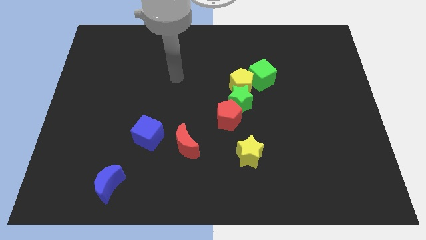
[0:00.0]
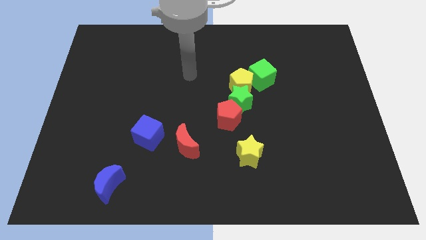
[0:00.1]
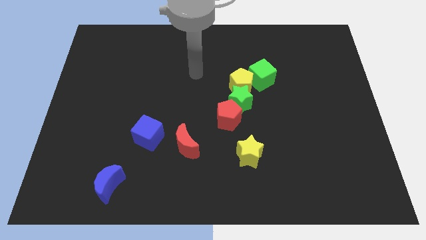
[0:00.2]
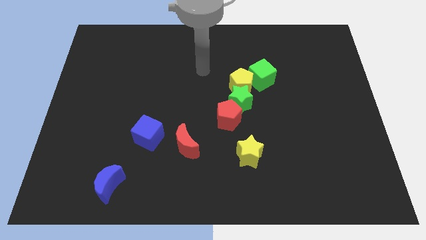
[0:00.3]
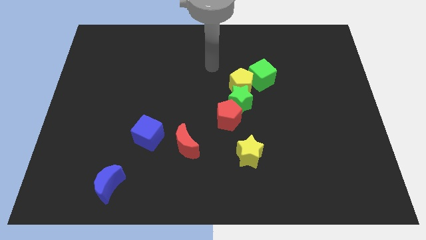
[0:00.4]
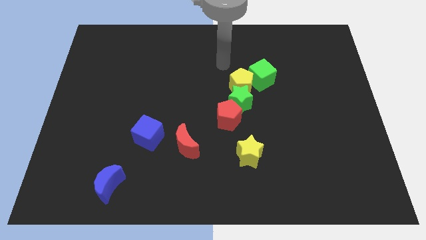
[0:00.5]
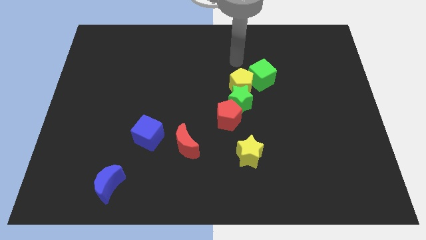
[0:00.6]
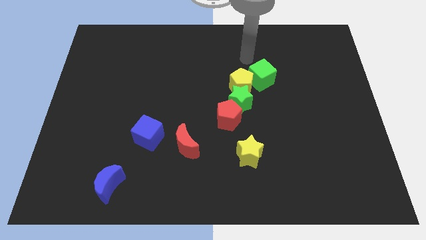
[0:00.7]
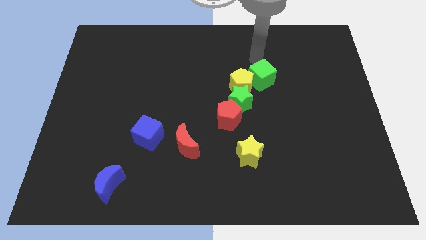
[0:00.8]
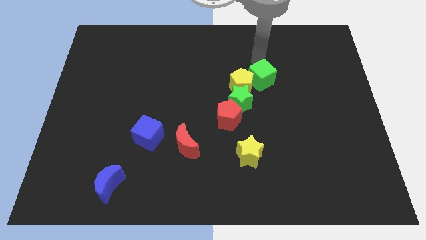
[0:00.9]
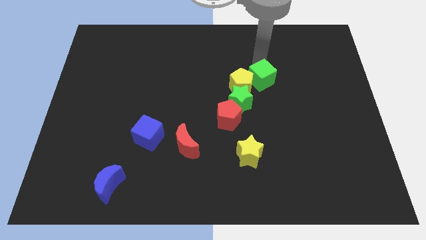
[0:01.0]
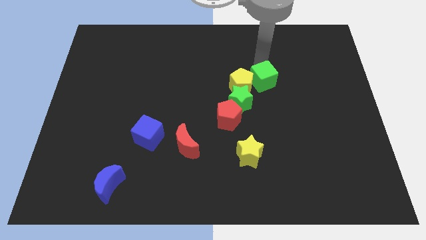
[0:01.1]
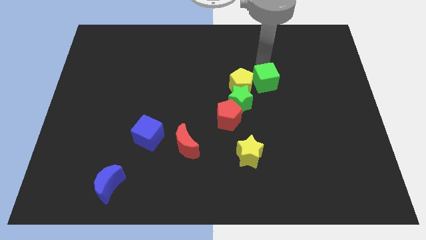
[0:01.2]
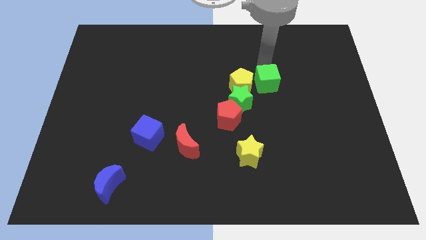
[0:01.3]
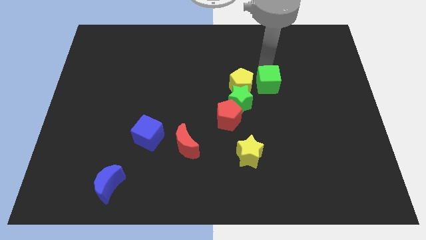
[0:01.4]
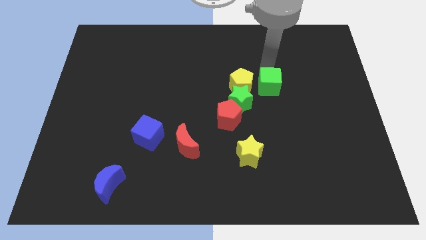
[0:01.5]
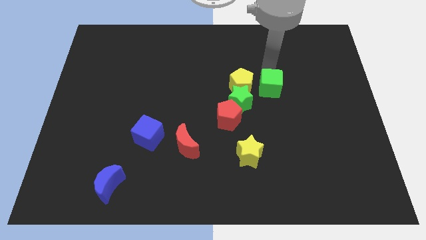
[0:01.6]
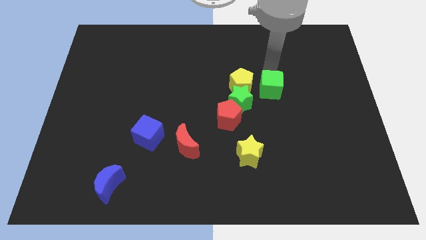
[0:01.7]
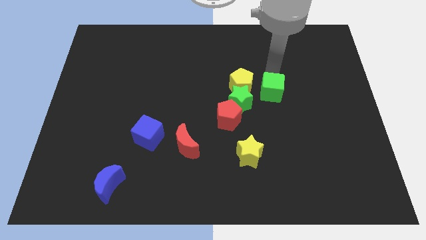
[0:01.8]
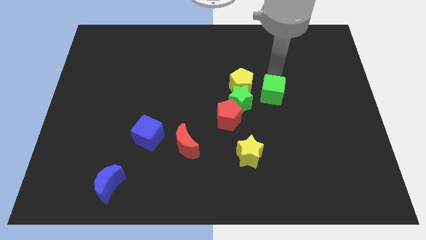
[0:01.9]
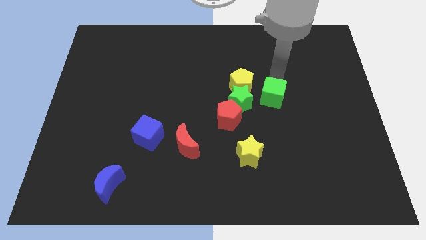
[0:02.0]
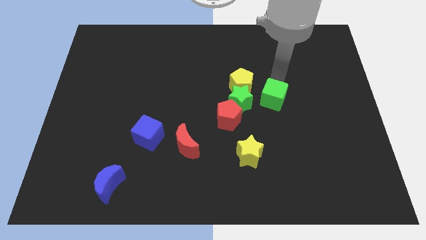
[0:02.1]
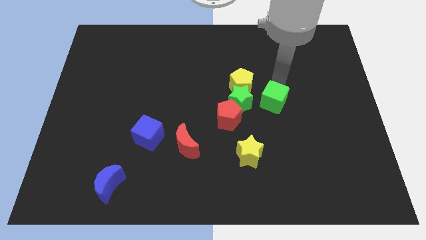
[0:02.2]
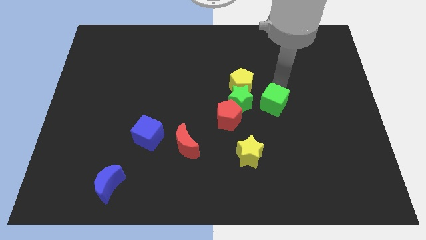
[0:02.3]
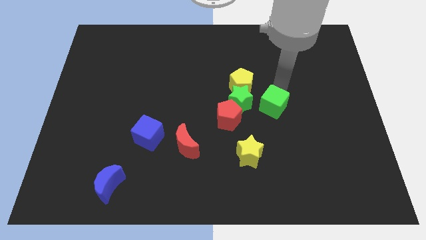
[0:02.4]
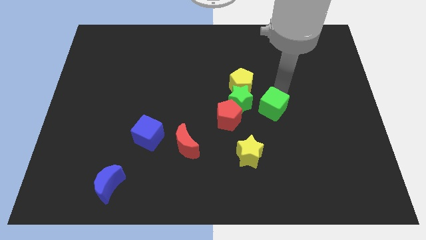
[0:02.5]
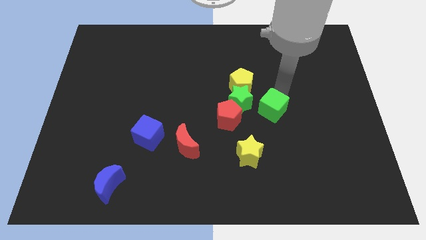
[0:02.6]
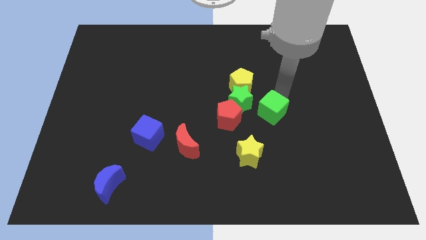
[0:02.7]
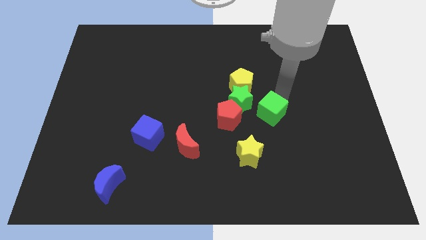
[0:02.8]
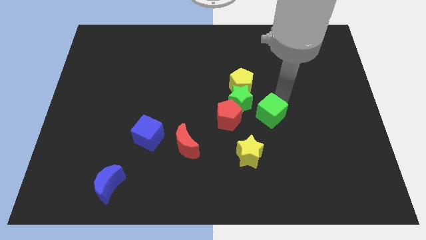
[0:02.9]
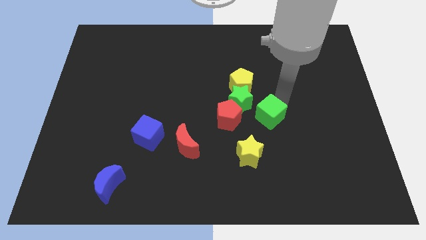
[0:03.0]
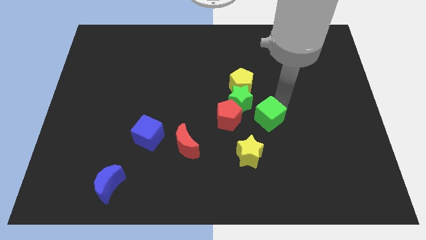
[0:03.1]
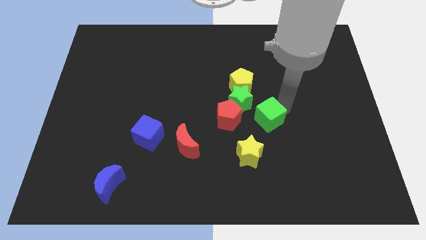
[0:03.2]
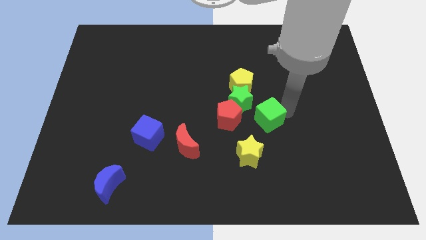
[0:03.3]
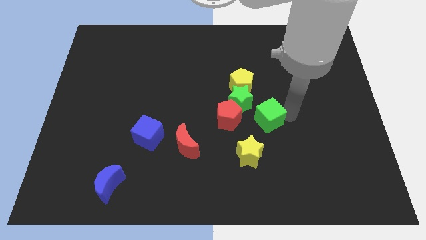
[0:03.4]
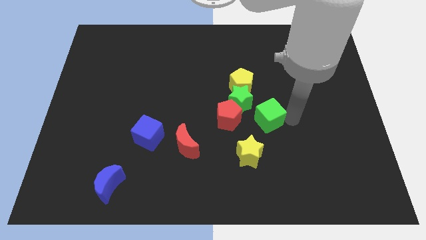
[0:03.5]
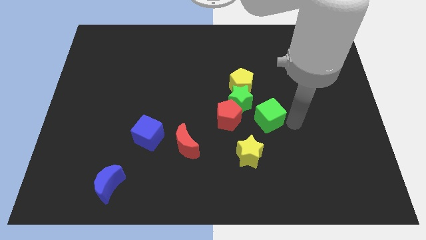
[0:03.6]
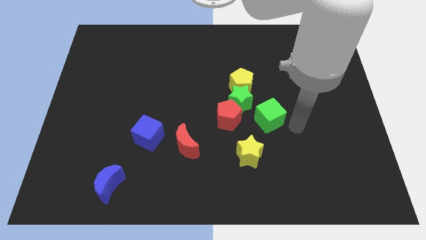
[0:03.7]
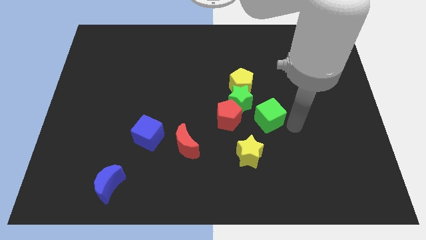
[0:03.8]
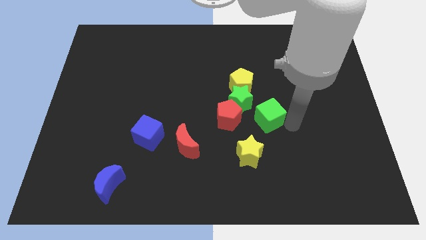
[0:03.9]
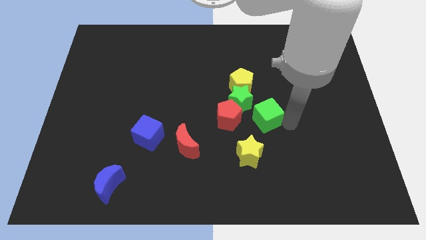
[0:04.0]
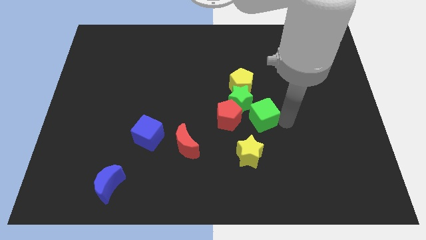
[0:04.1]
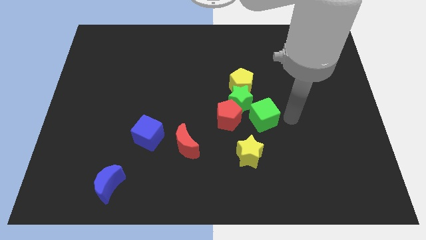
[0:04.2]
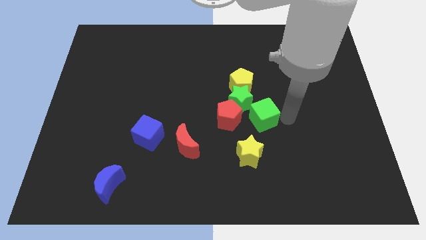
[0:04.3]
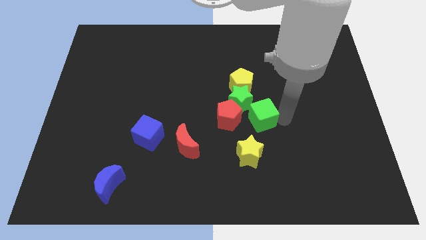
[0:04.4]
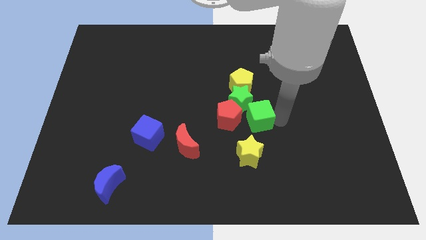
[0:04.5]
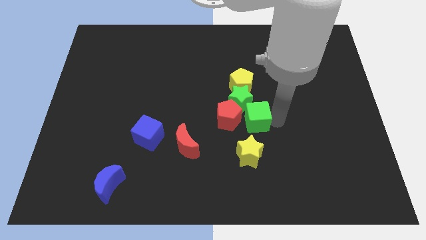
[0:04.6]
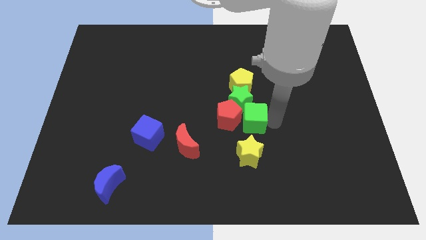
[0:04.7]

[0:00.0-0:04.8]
put the green cube next to the red pentagon

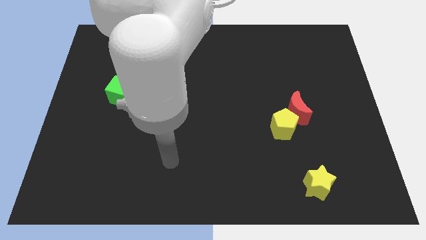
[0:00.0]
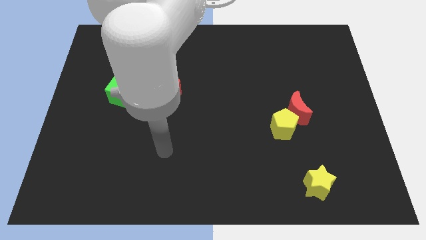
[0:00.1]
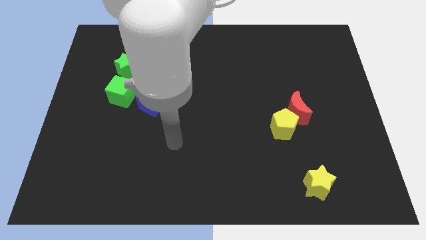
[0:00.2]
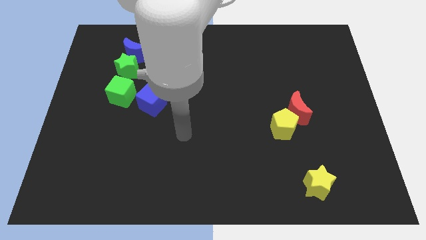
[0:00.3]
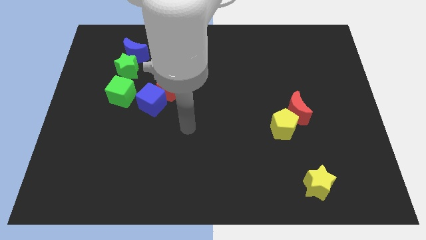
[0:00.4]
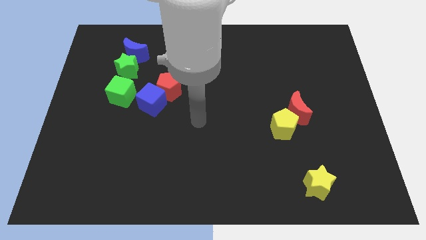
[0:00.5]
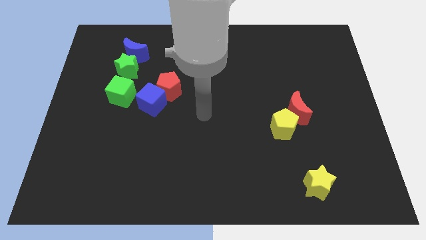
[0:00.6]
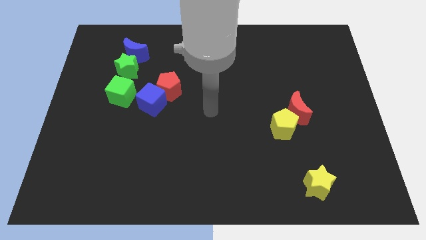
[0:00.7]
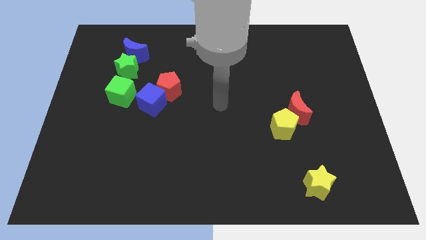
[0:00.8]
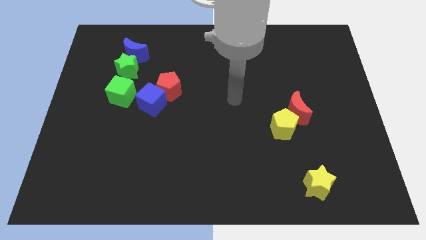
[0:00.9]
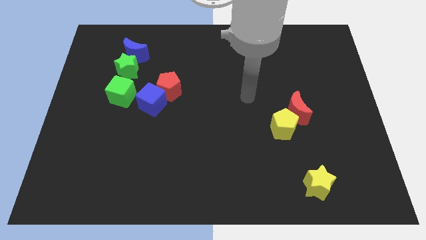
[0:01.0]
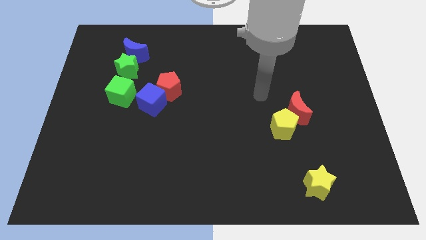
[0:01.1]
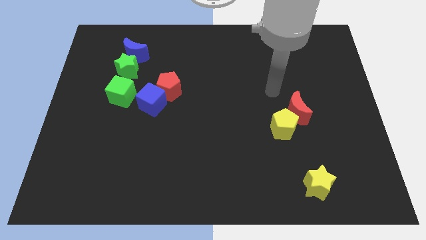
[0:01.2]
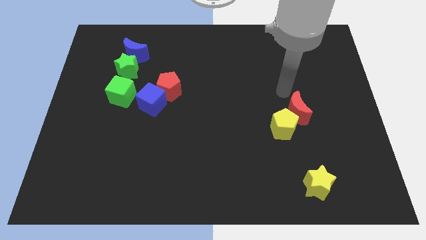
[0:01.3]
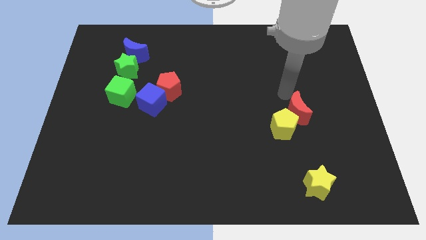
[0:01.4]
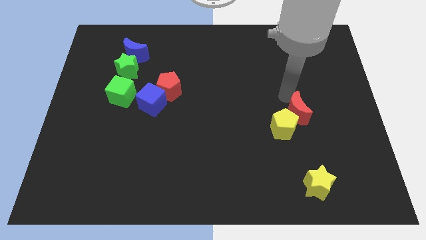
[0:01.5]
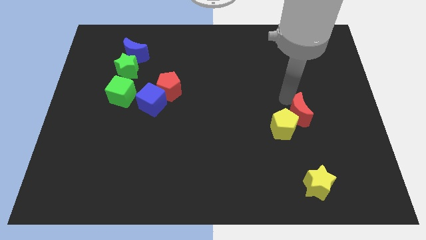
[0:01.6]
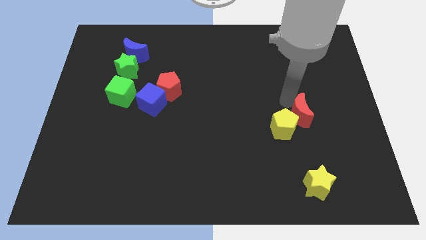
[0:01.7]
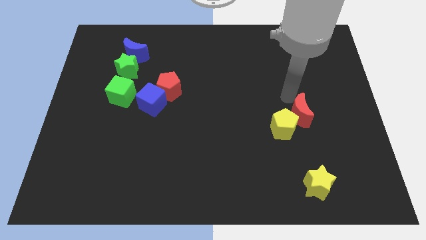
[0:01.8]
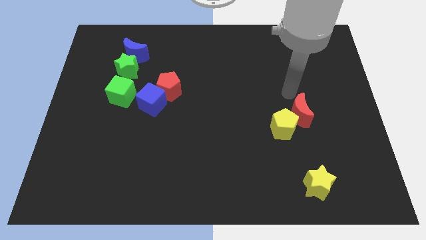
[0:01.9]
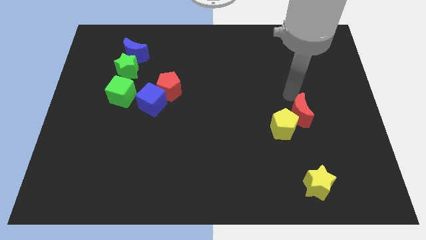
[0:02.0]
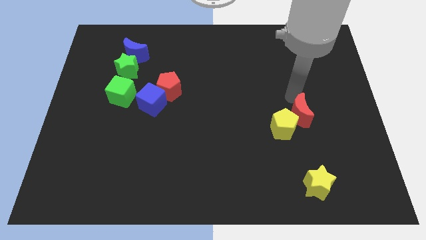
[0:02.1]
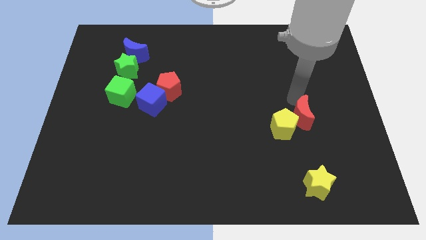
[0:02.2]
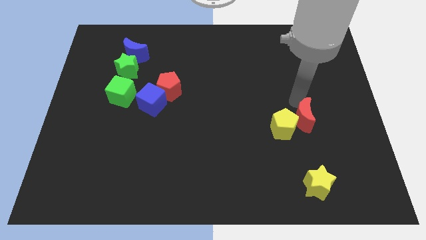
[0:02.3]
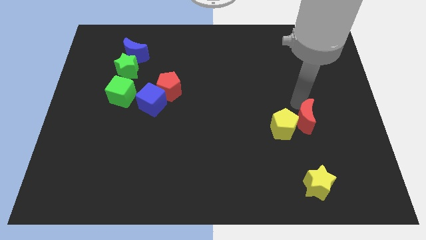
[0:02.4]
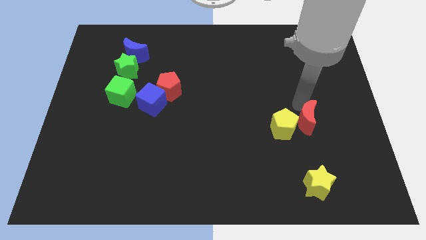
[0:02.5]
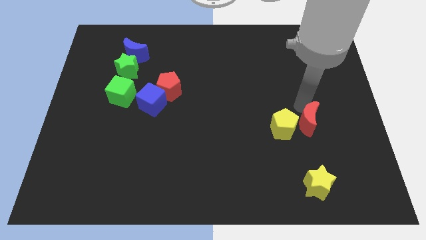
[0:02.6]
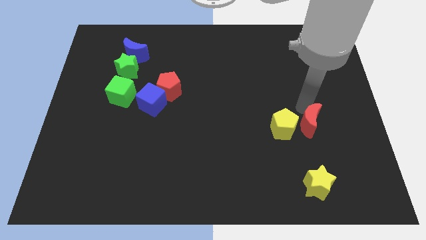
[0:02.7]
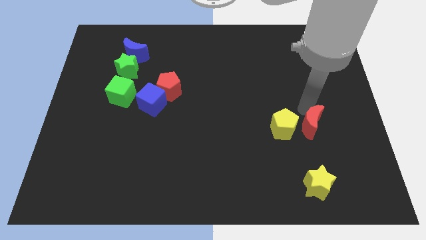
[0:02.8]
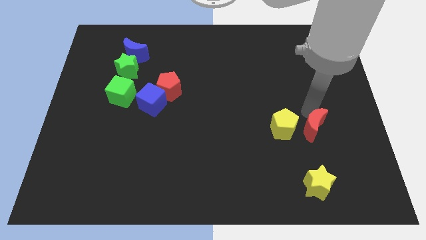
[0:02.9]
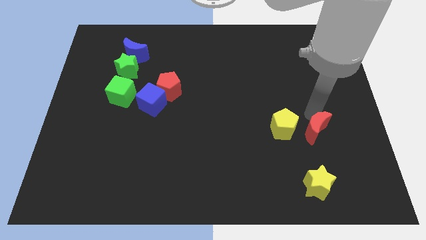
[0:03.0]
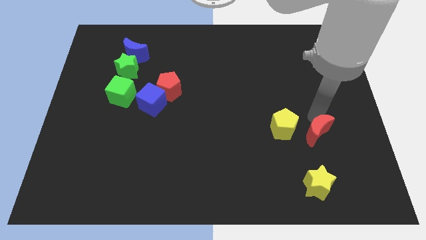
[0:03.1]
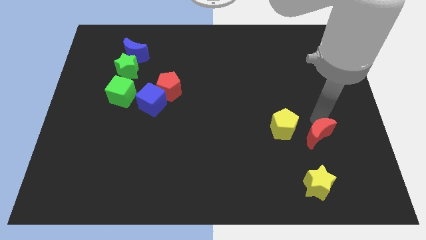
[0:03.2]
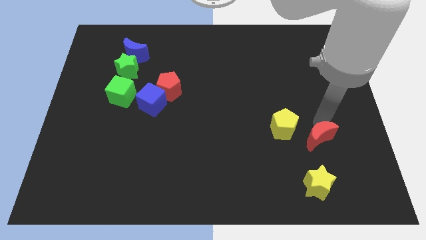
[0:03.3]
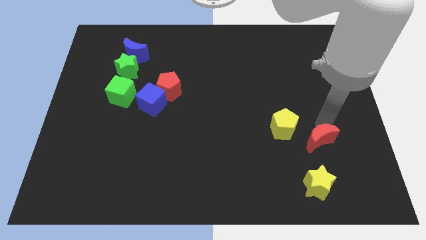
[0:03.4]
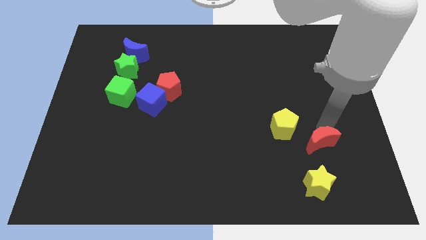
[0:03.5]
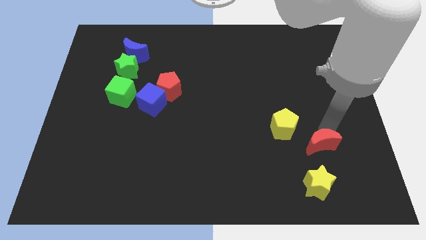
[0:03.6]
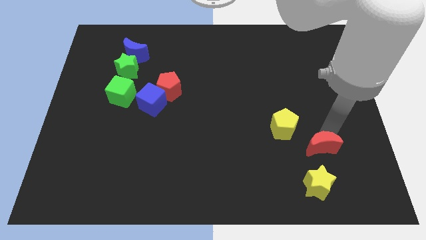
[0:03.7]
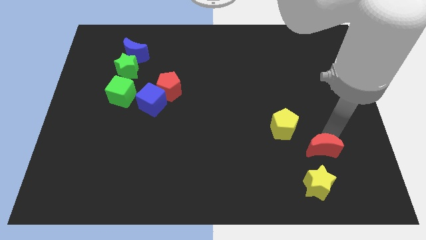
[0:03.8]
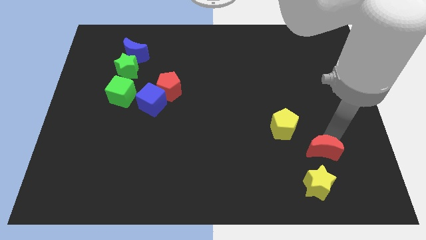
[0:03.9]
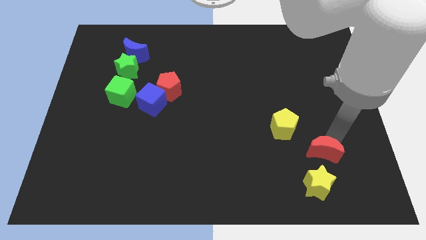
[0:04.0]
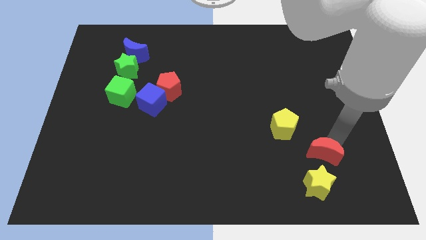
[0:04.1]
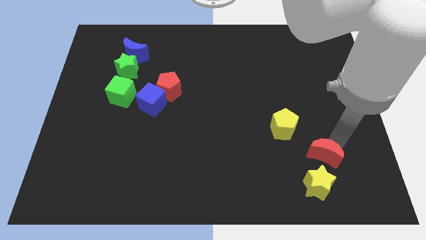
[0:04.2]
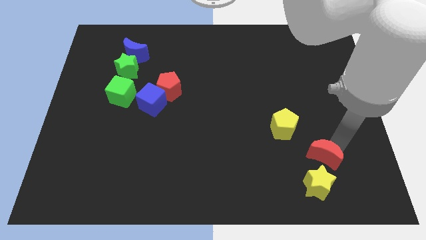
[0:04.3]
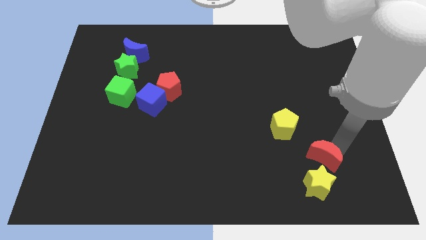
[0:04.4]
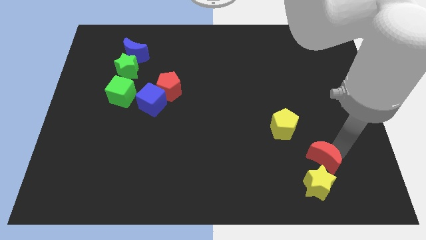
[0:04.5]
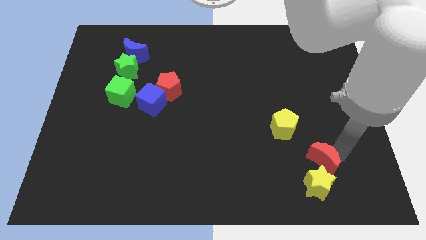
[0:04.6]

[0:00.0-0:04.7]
push the red moon towards the yellow star
